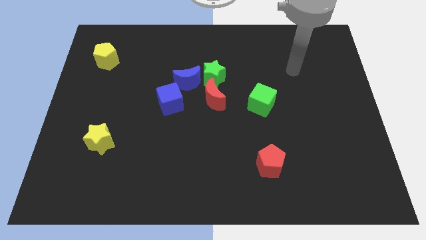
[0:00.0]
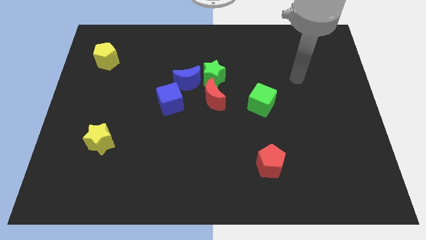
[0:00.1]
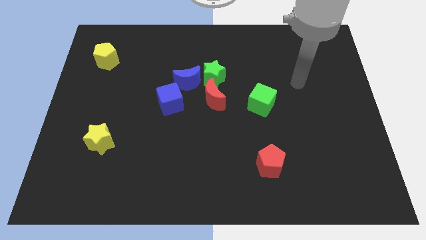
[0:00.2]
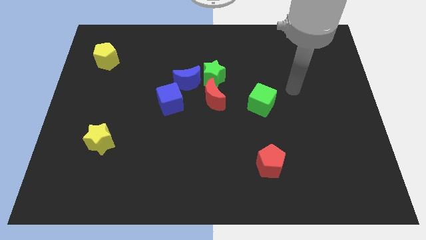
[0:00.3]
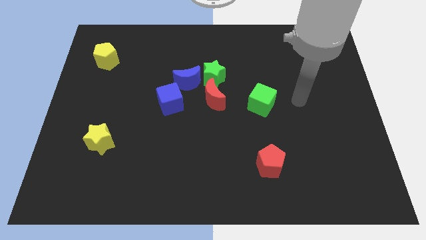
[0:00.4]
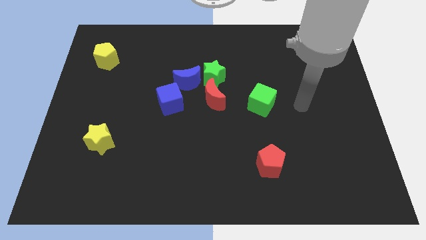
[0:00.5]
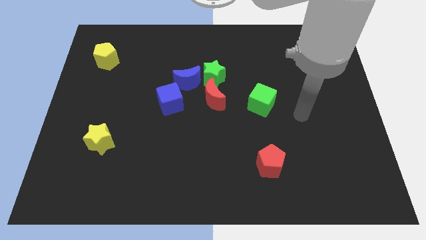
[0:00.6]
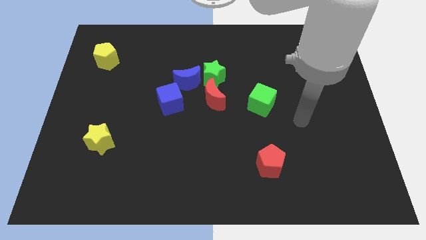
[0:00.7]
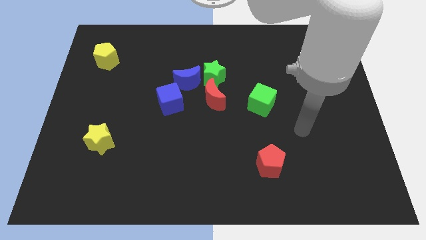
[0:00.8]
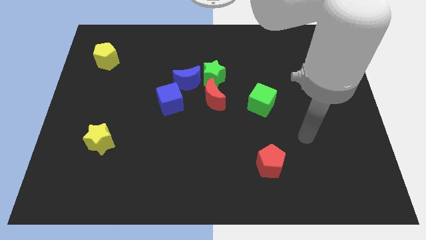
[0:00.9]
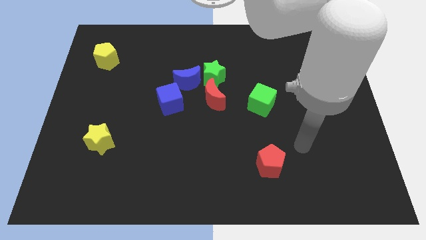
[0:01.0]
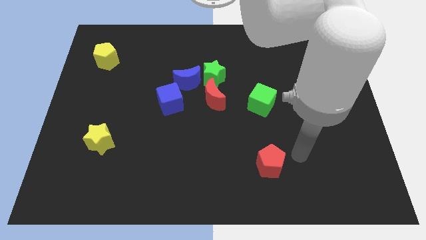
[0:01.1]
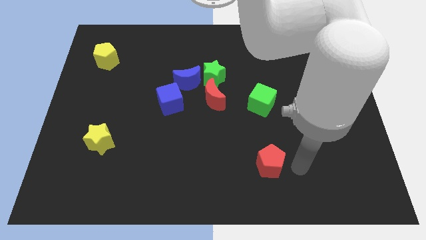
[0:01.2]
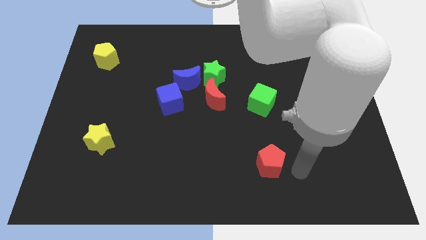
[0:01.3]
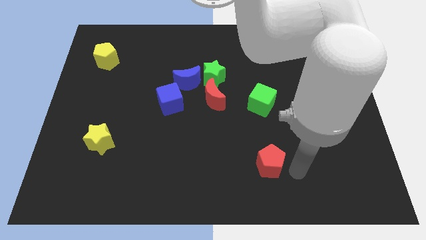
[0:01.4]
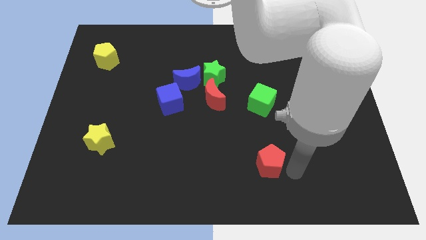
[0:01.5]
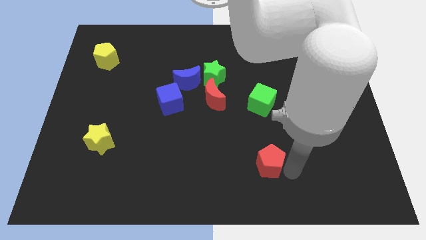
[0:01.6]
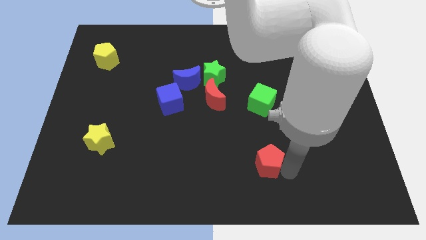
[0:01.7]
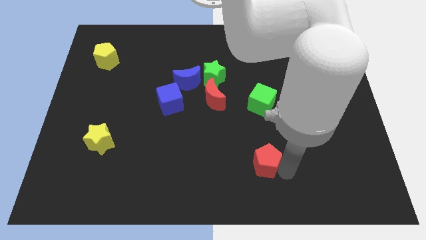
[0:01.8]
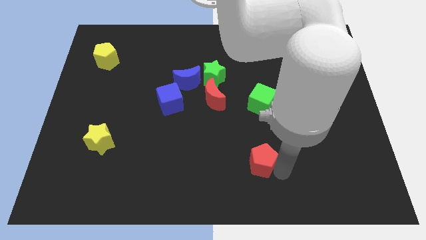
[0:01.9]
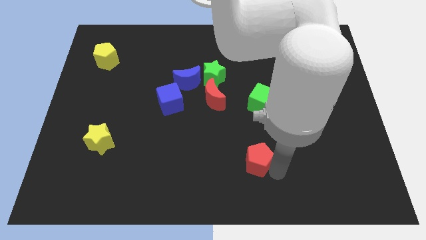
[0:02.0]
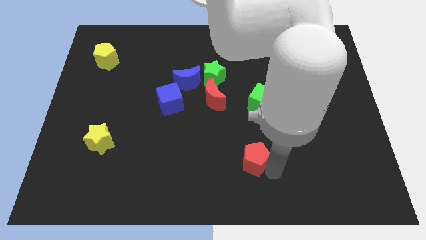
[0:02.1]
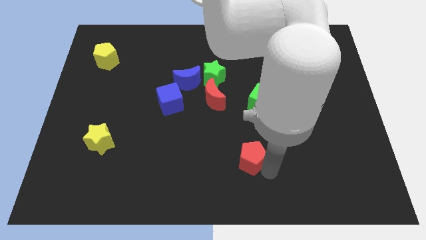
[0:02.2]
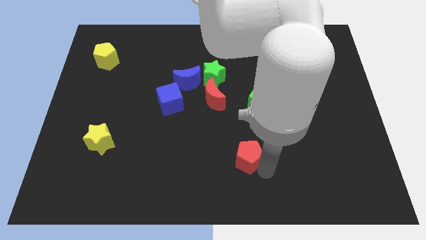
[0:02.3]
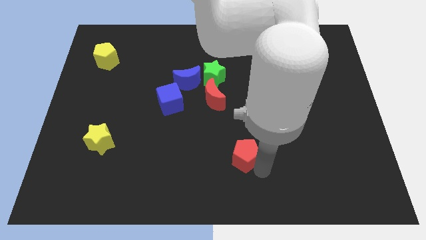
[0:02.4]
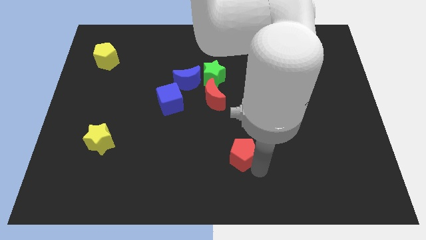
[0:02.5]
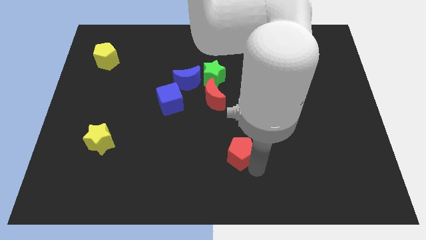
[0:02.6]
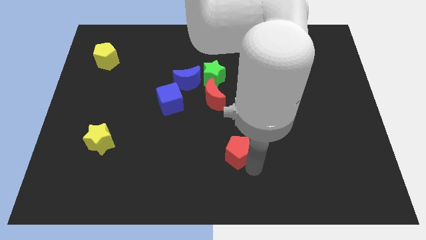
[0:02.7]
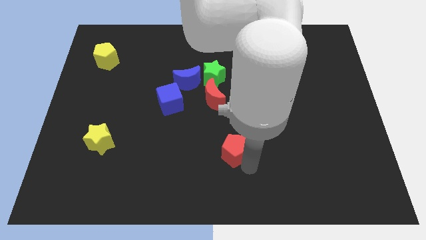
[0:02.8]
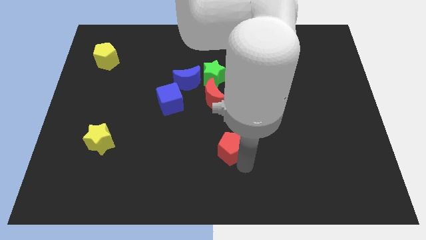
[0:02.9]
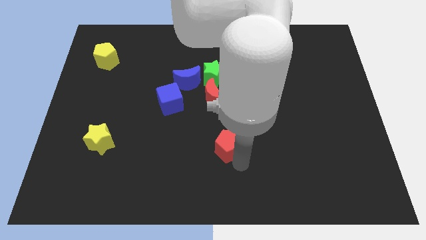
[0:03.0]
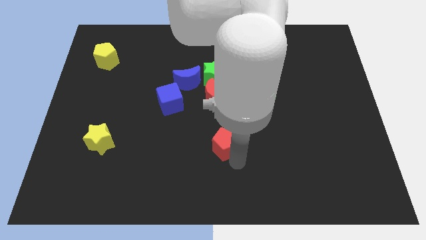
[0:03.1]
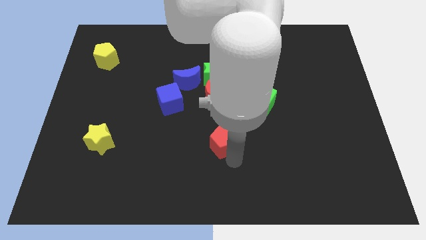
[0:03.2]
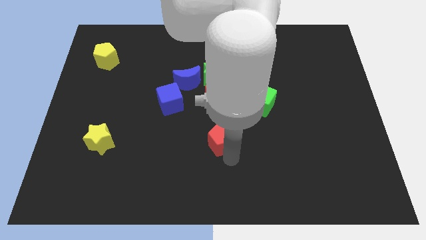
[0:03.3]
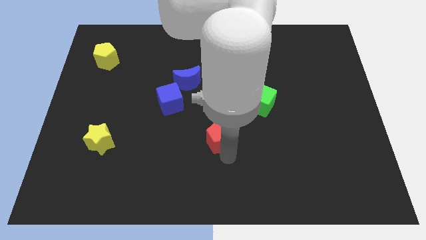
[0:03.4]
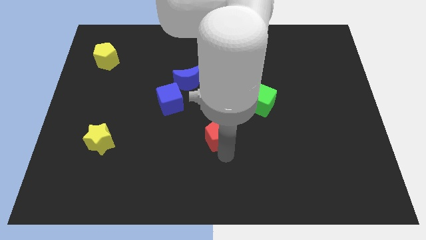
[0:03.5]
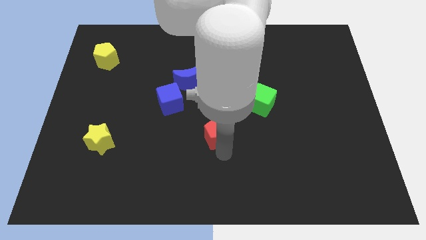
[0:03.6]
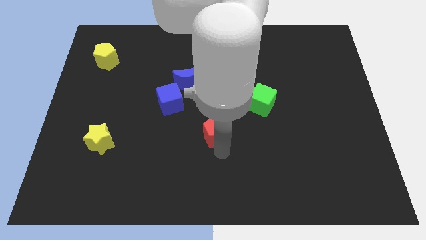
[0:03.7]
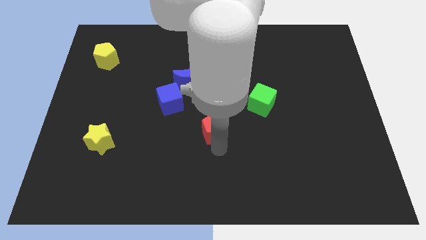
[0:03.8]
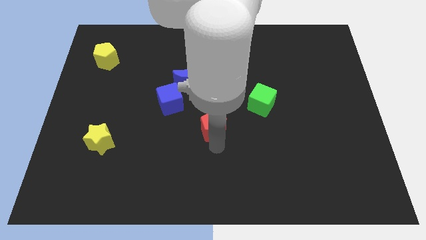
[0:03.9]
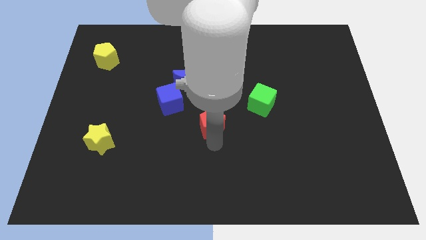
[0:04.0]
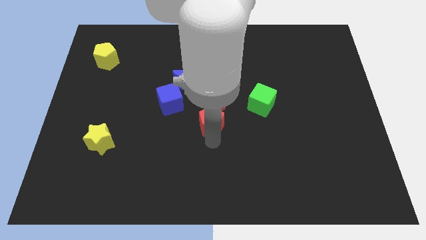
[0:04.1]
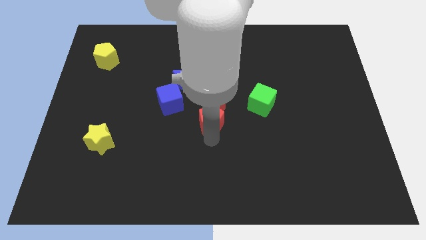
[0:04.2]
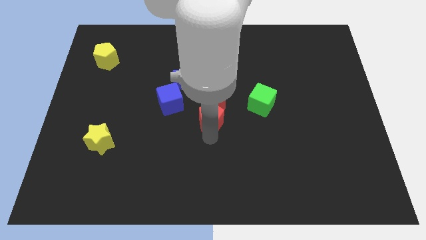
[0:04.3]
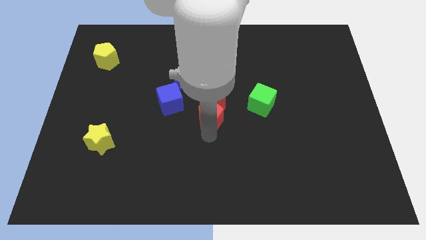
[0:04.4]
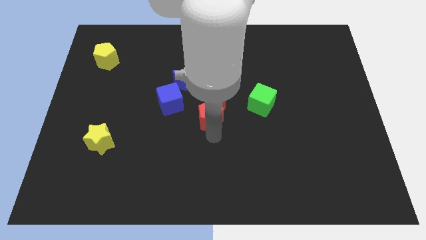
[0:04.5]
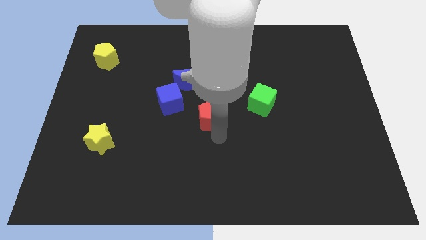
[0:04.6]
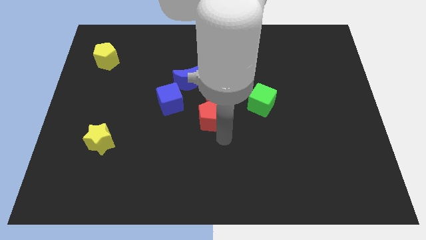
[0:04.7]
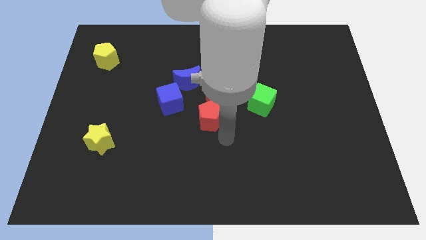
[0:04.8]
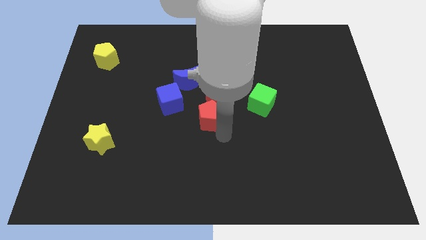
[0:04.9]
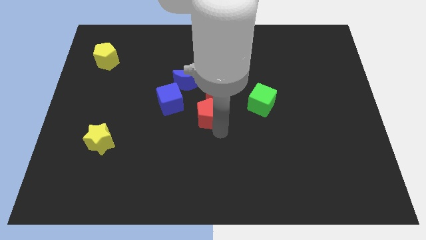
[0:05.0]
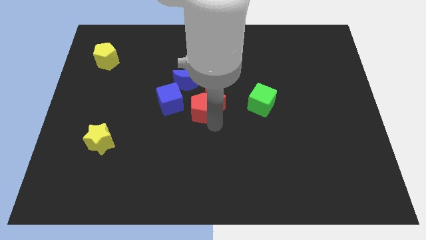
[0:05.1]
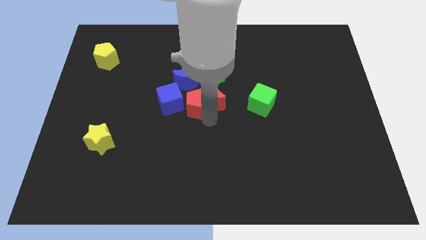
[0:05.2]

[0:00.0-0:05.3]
move the red pentagon to the bottom left of the green star

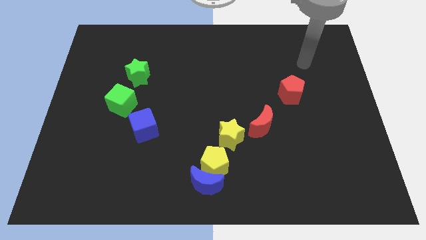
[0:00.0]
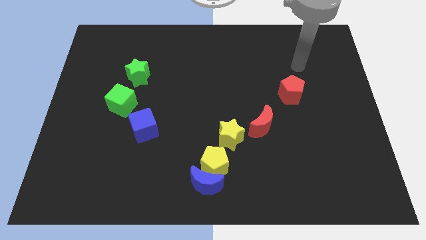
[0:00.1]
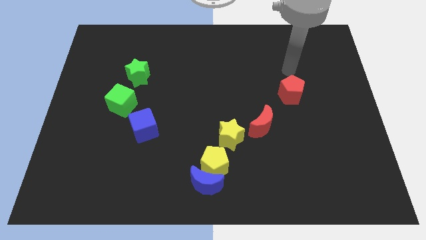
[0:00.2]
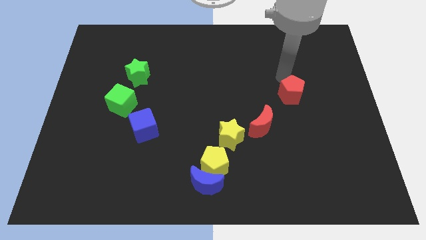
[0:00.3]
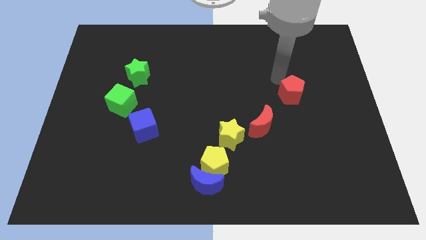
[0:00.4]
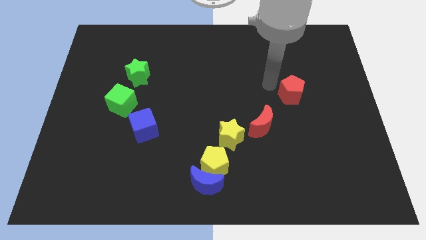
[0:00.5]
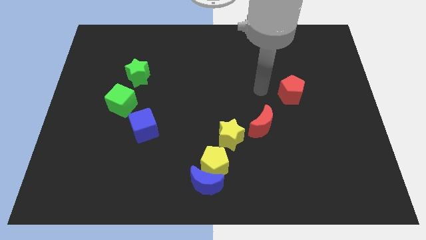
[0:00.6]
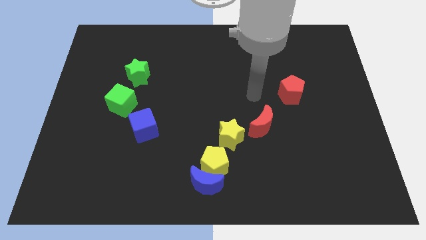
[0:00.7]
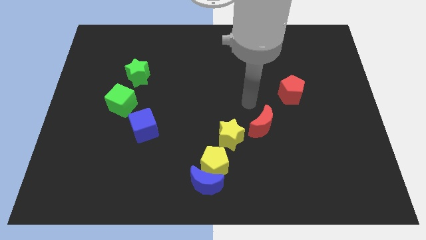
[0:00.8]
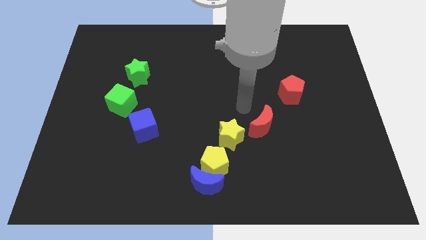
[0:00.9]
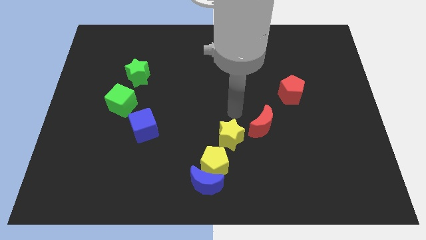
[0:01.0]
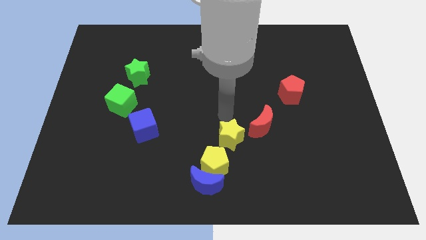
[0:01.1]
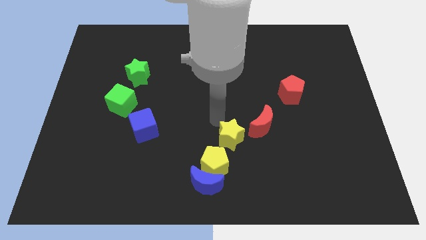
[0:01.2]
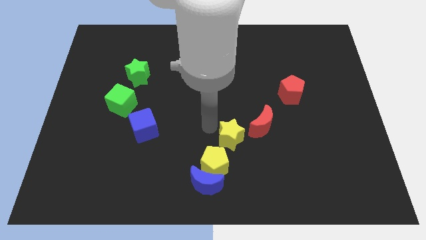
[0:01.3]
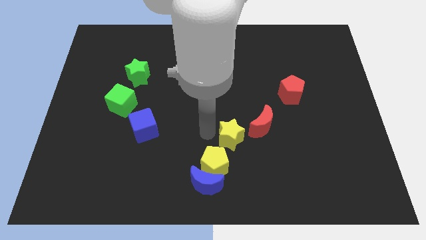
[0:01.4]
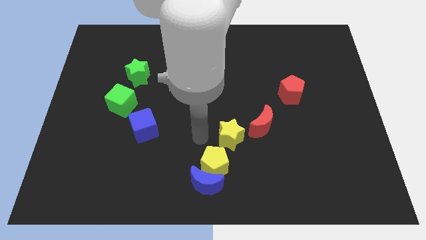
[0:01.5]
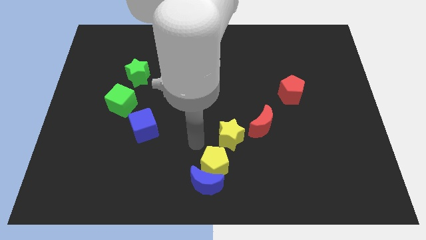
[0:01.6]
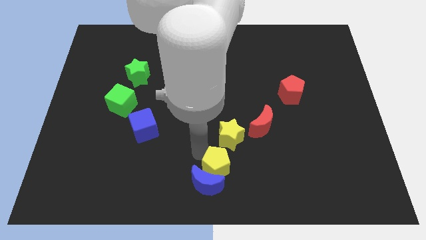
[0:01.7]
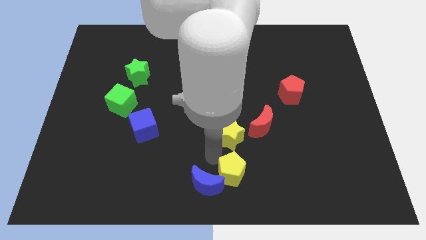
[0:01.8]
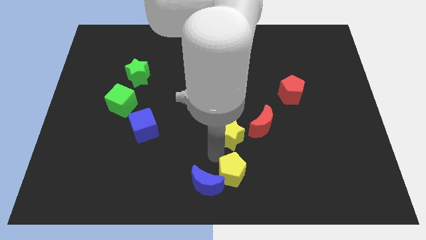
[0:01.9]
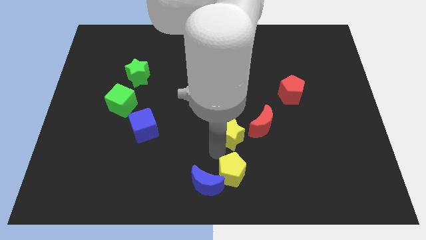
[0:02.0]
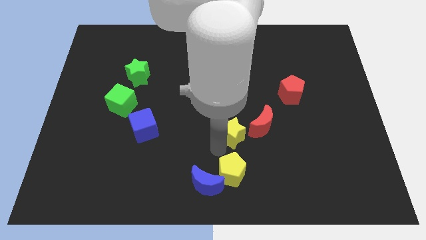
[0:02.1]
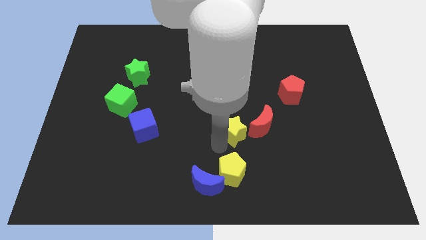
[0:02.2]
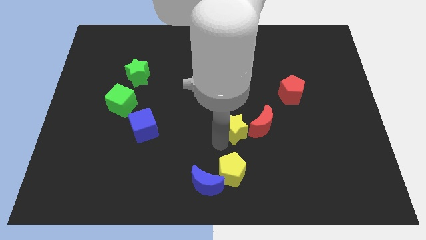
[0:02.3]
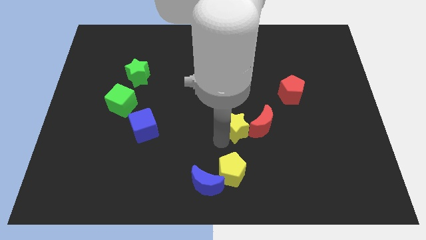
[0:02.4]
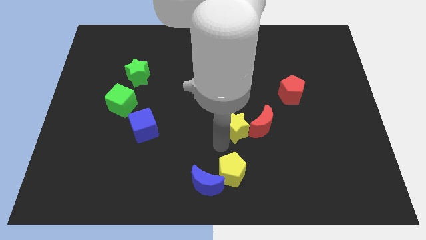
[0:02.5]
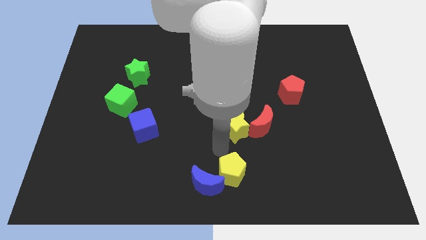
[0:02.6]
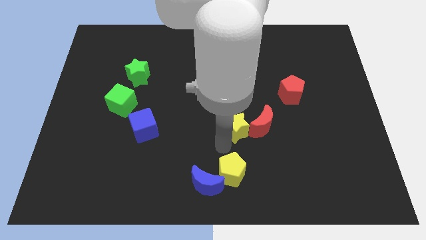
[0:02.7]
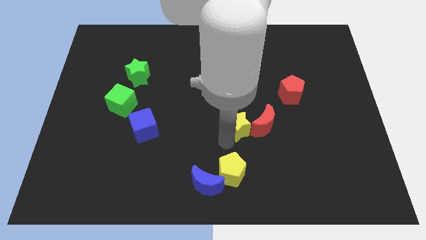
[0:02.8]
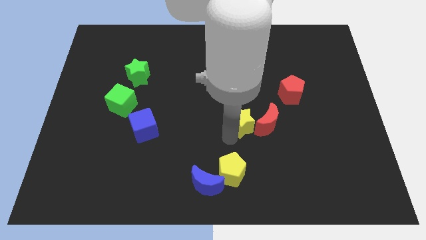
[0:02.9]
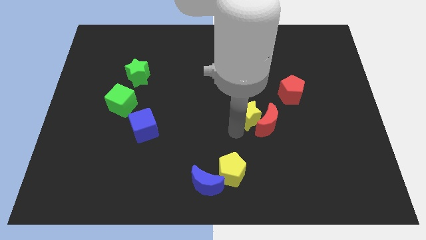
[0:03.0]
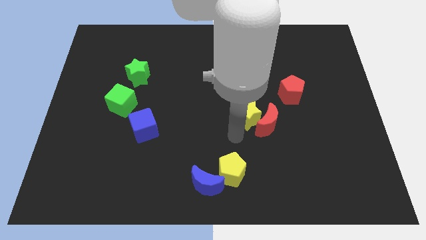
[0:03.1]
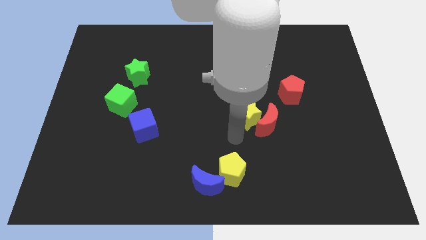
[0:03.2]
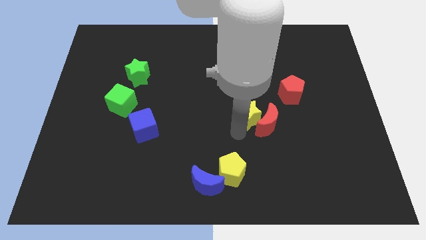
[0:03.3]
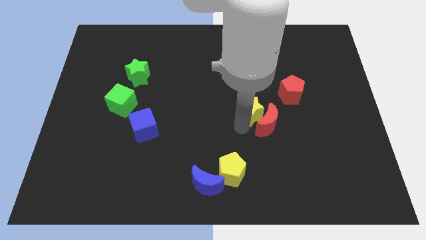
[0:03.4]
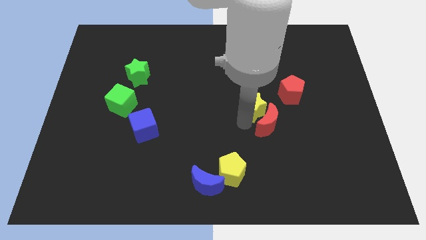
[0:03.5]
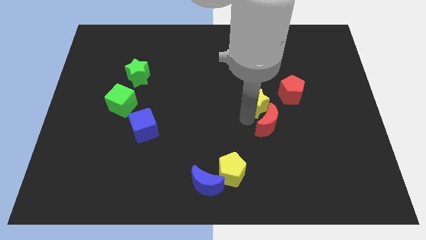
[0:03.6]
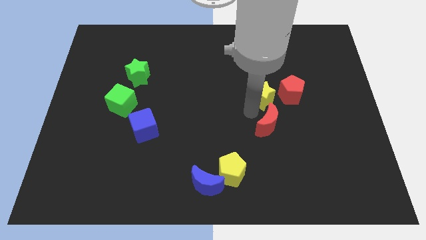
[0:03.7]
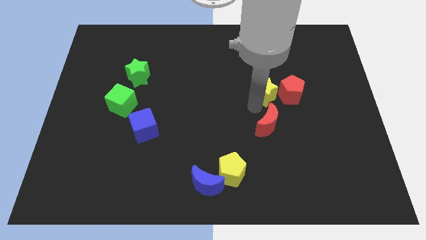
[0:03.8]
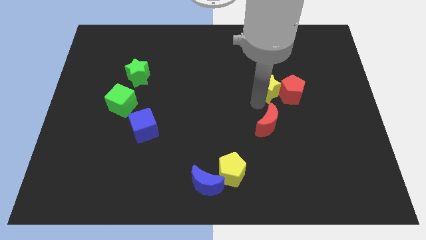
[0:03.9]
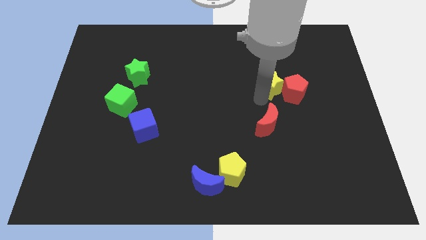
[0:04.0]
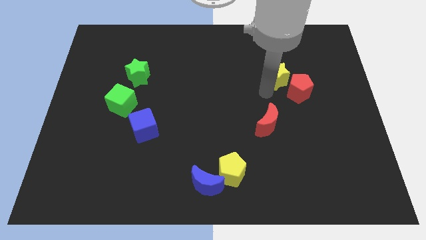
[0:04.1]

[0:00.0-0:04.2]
slide the yellow star to the top side of the red pentagon
